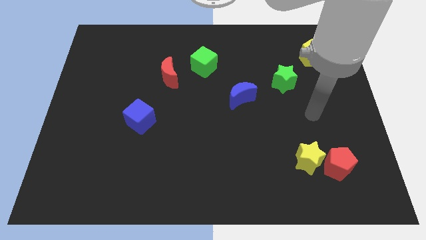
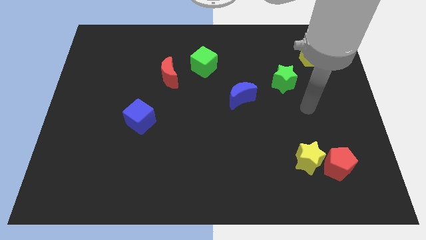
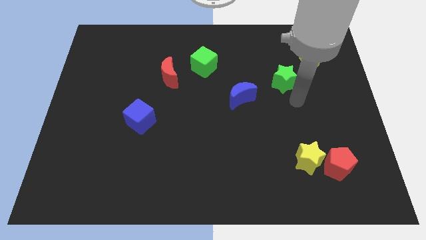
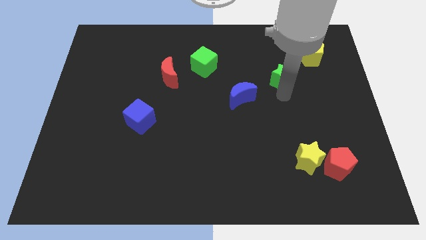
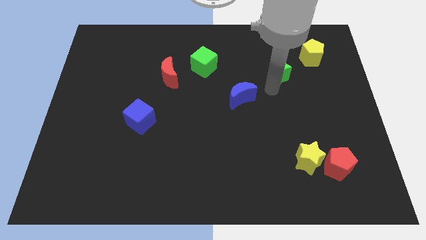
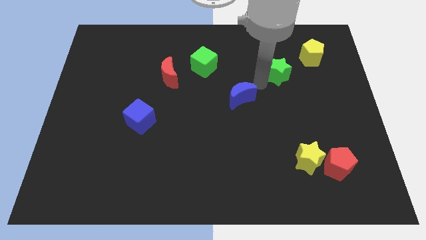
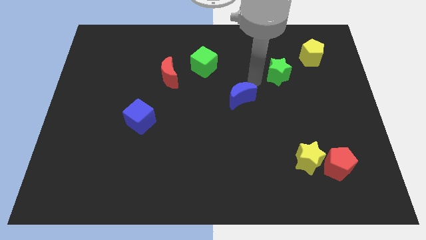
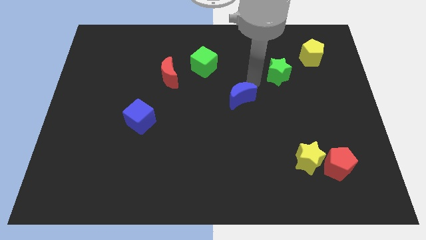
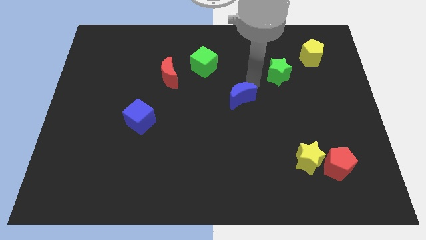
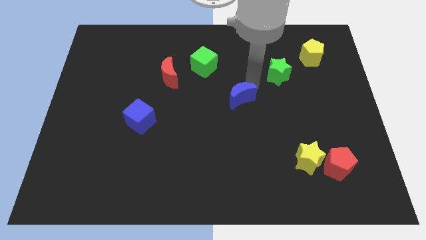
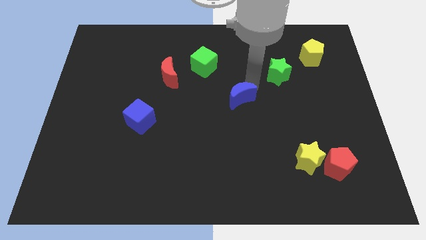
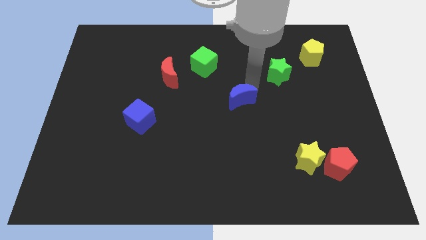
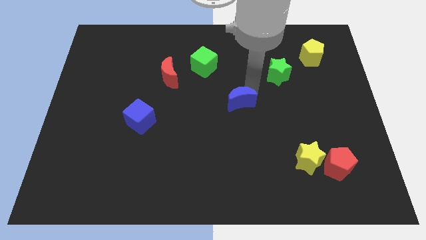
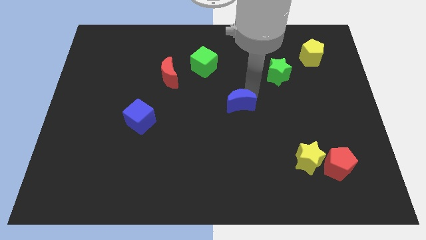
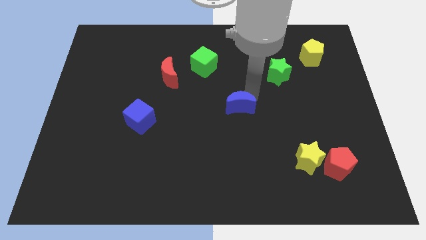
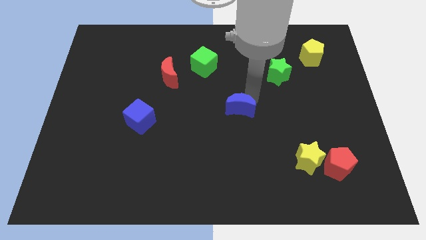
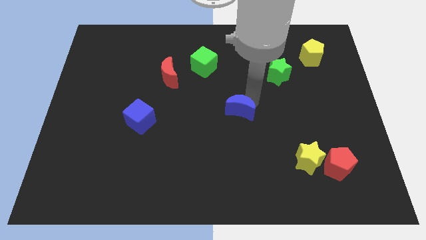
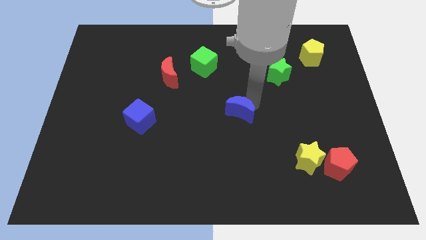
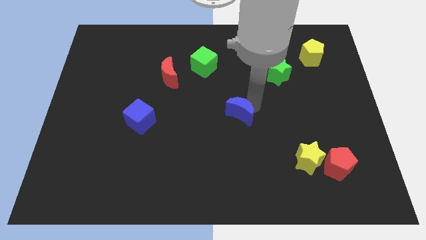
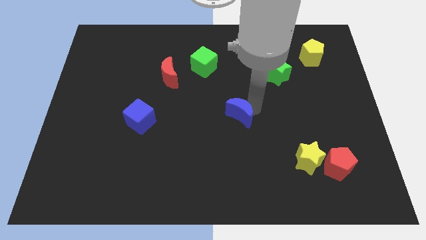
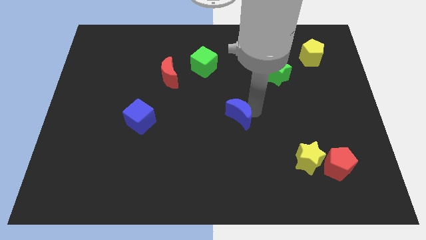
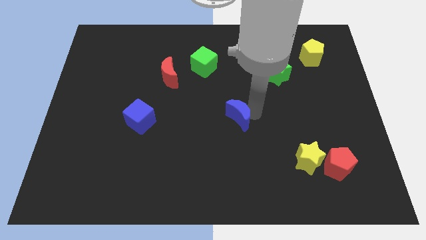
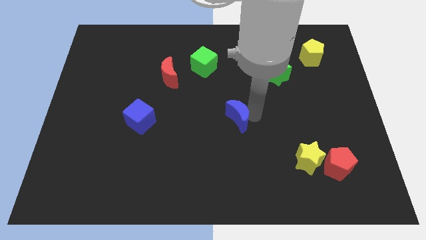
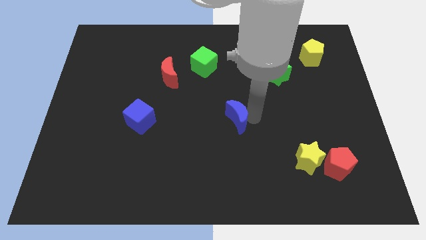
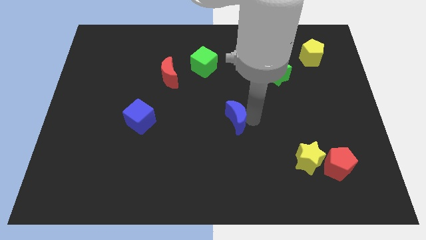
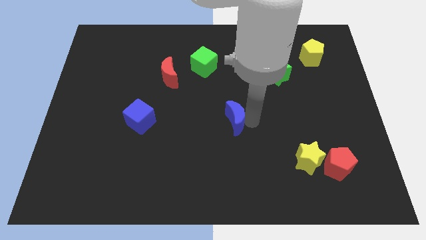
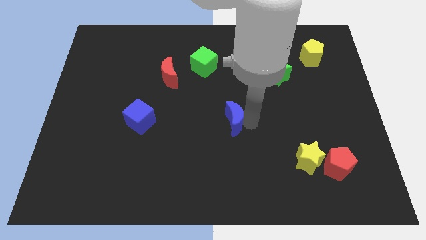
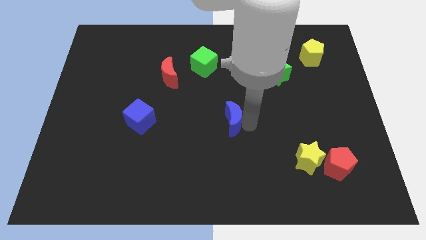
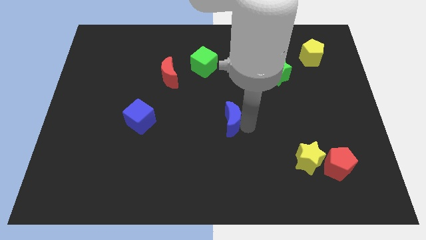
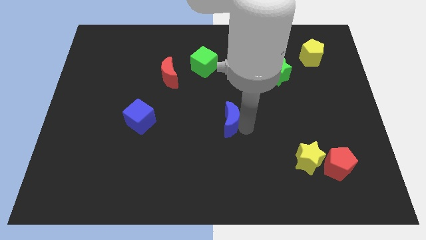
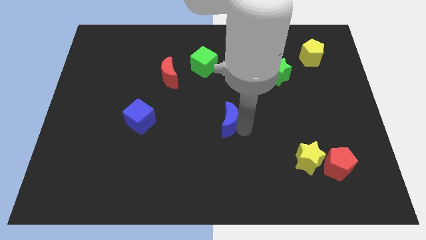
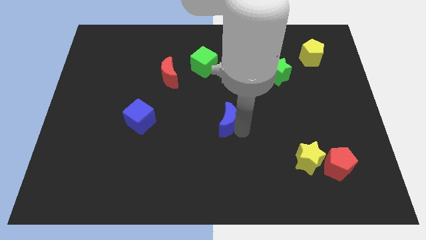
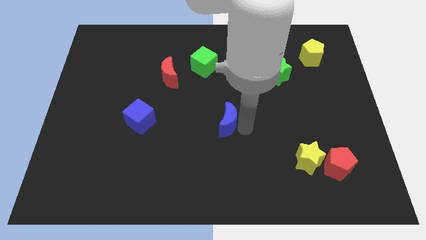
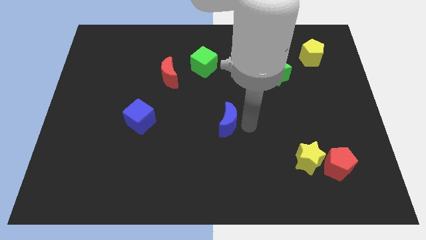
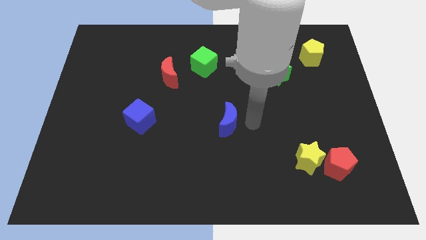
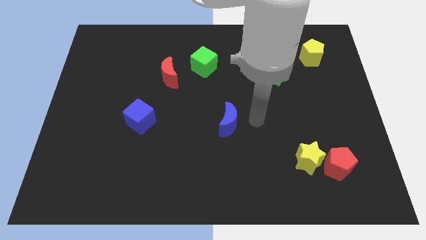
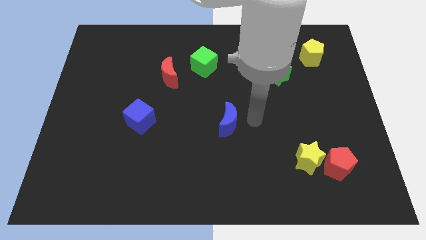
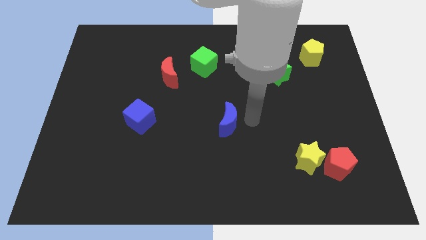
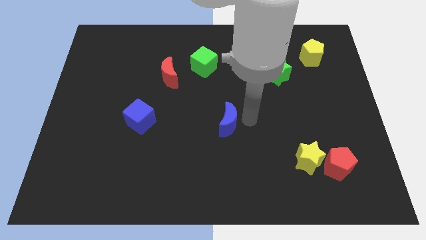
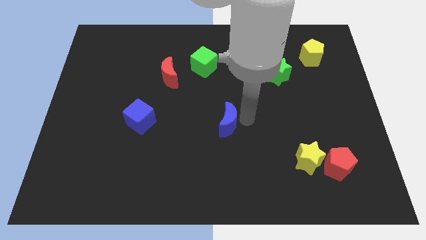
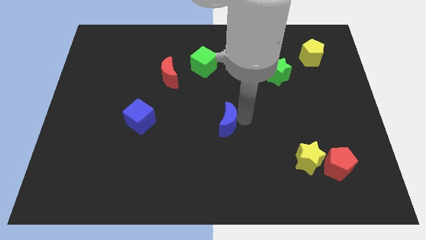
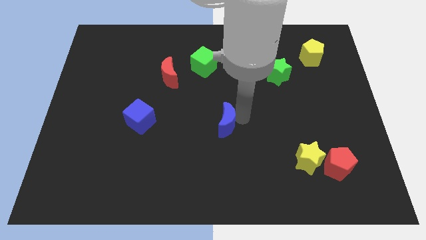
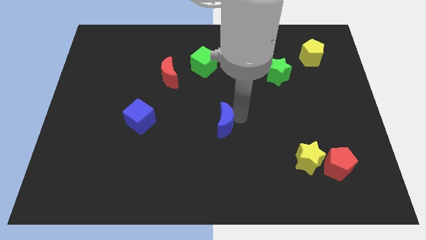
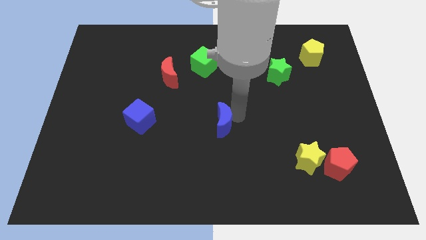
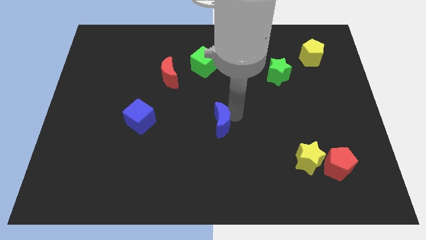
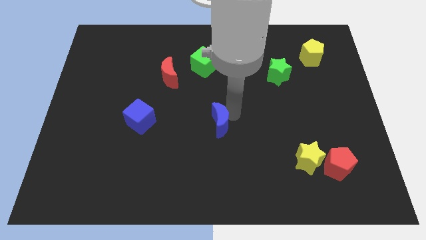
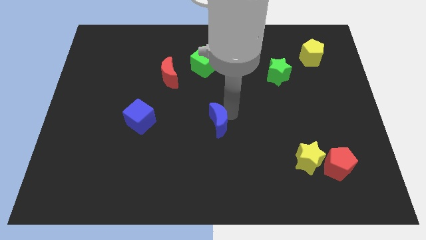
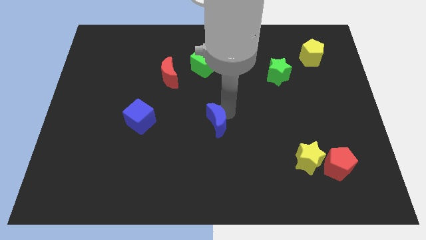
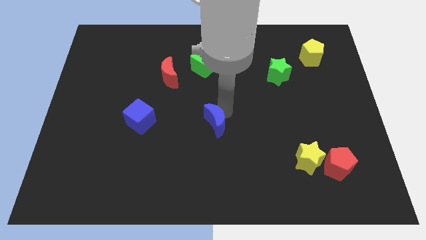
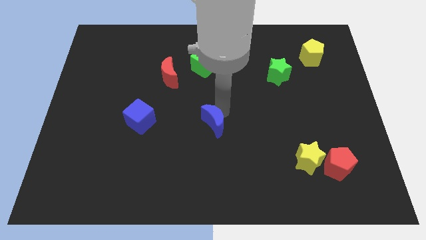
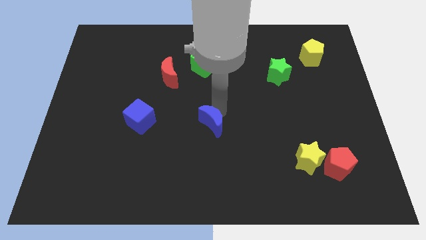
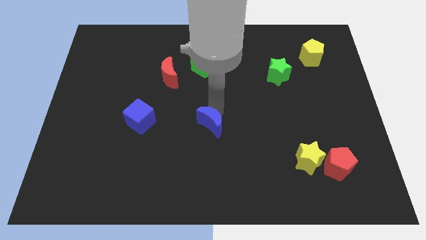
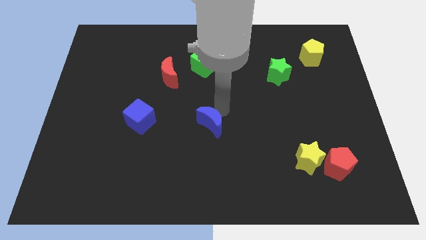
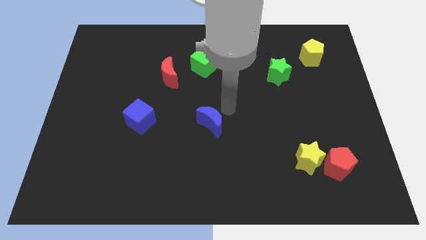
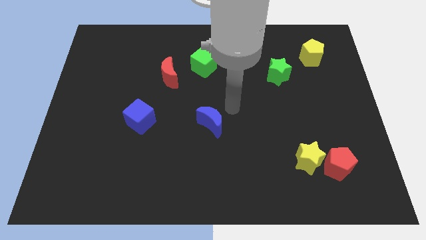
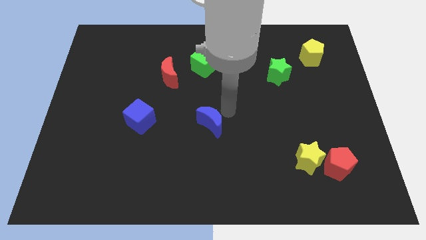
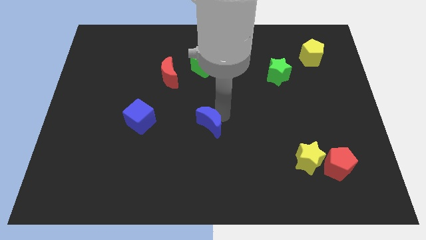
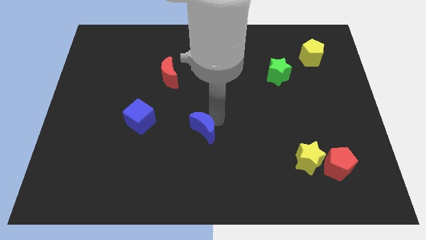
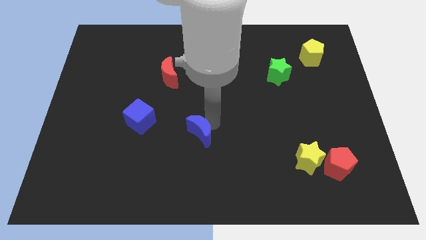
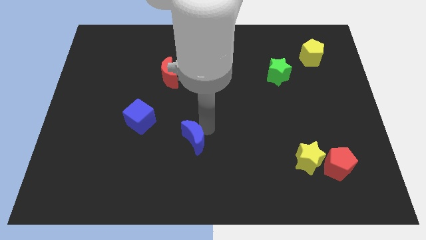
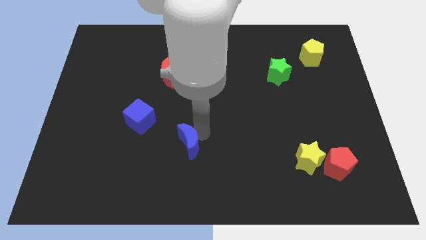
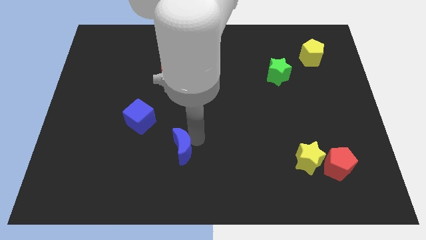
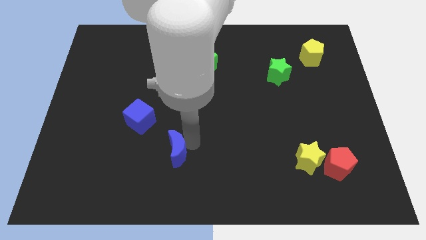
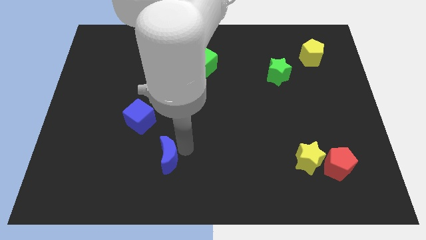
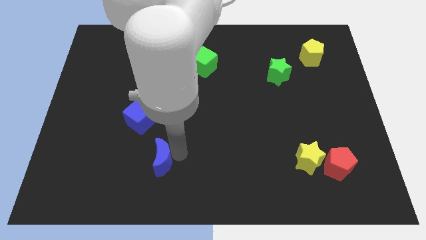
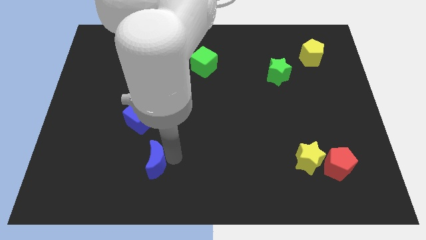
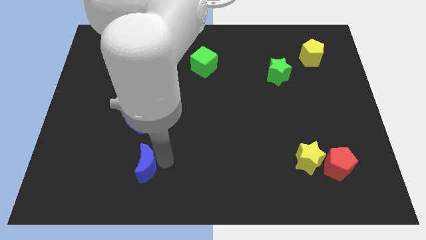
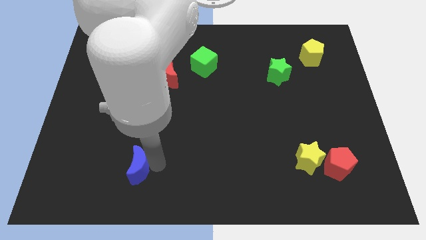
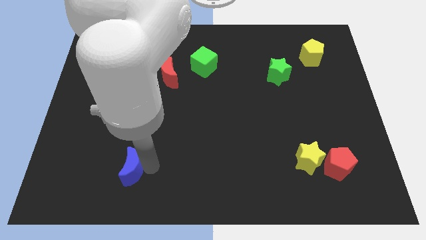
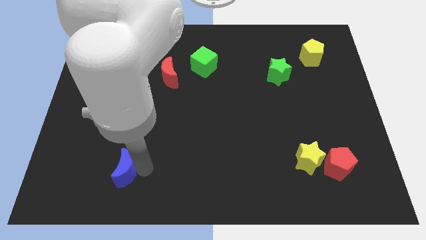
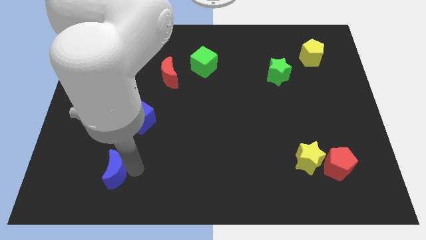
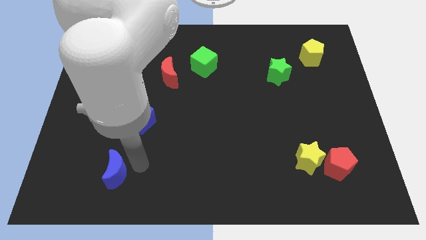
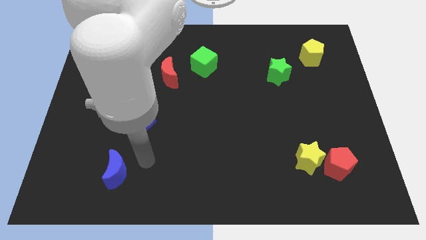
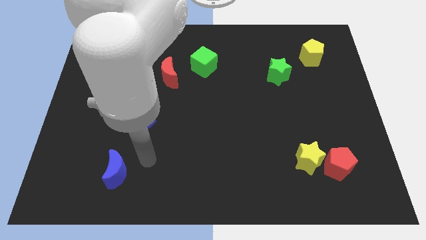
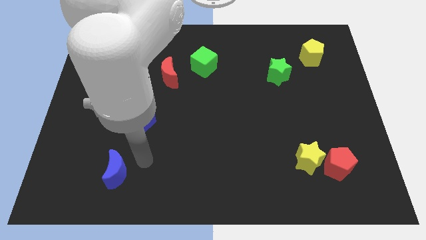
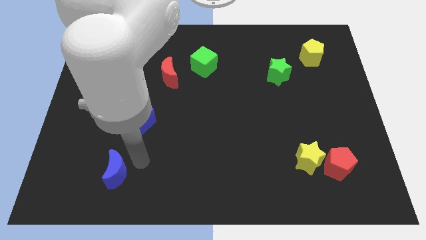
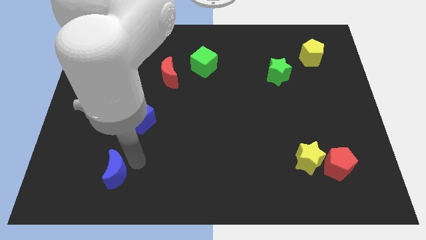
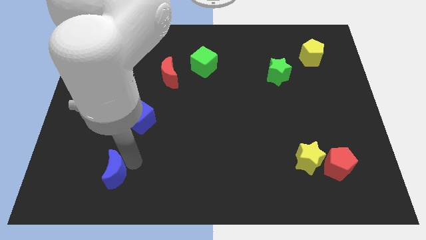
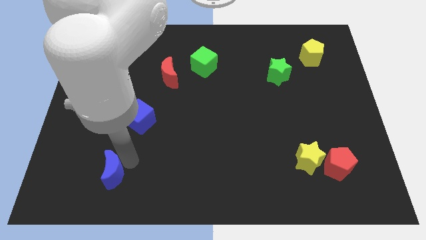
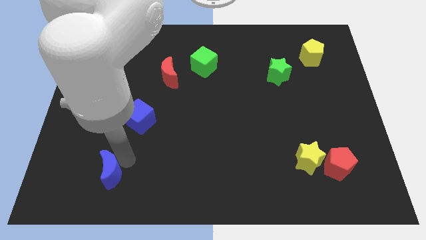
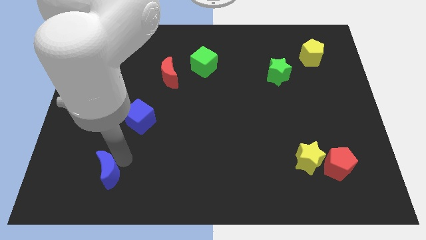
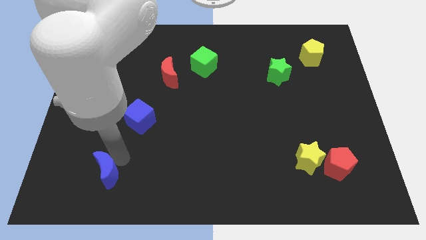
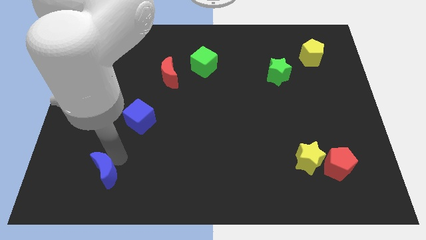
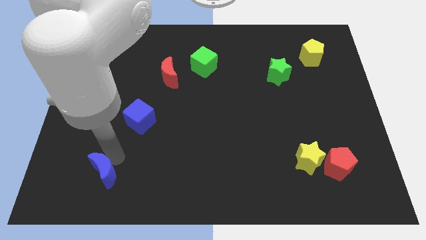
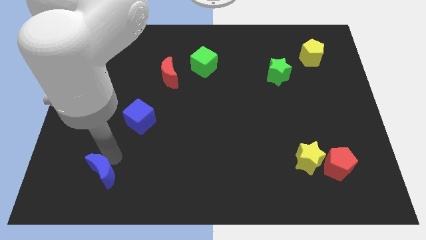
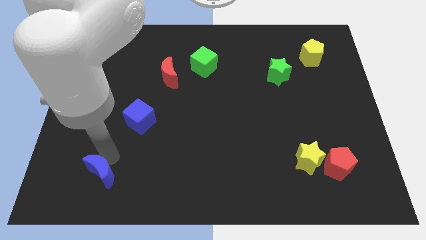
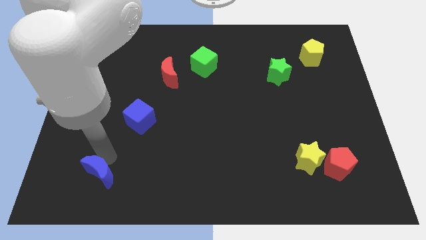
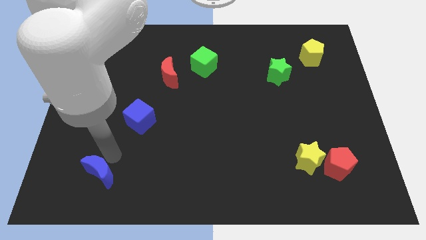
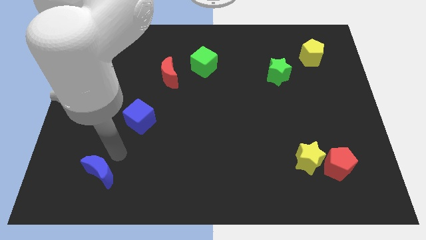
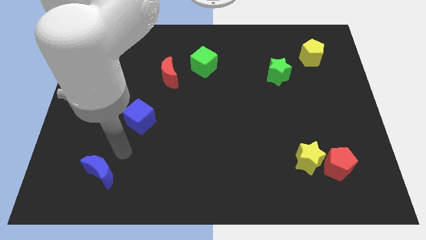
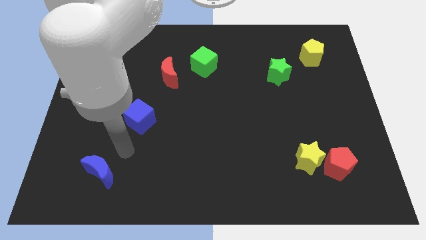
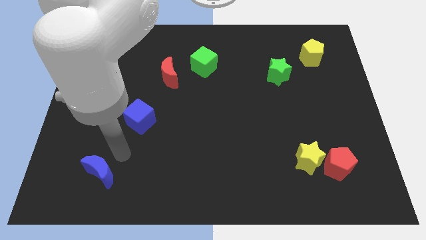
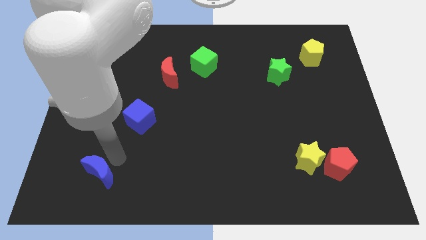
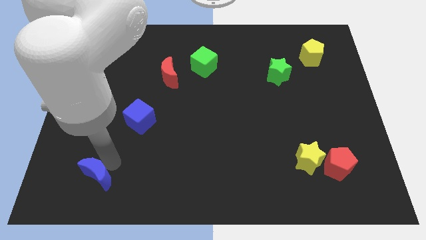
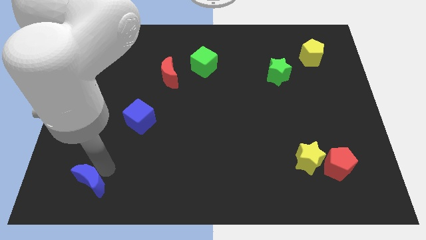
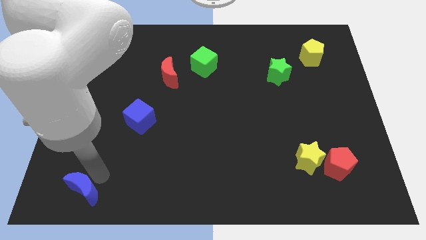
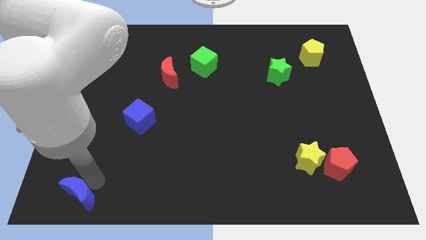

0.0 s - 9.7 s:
move the blue moon to the bottom left corner
